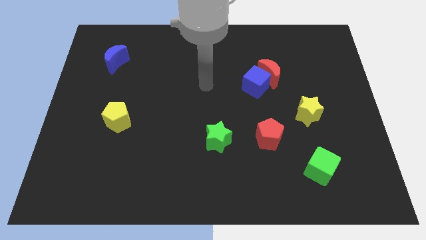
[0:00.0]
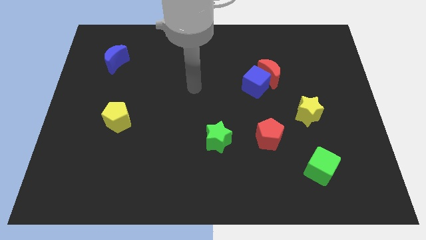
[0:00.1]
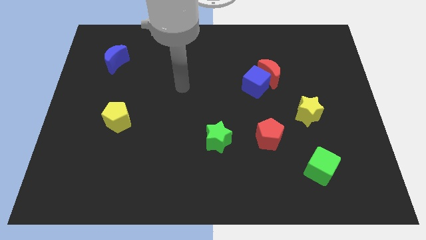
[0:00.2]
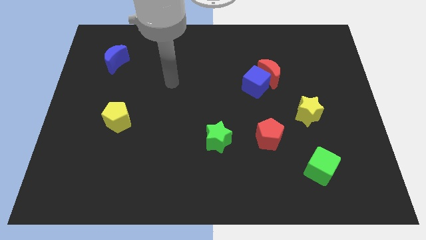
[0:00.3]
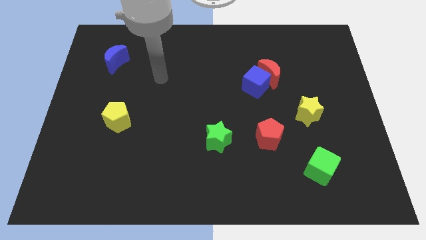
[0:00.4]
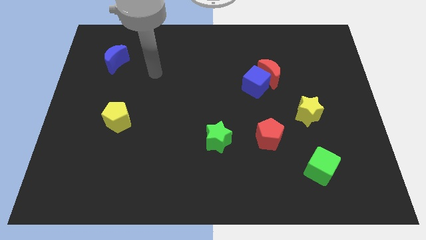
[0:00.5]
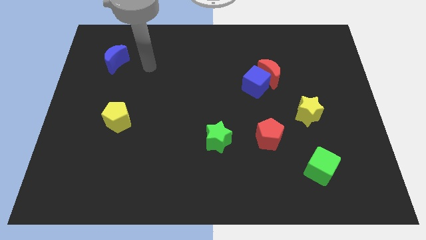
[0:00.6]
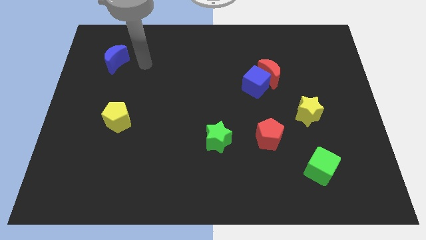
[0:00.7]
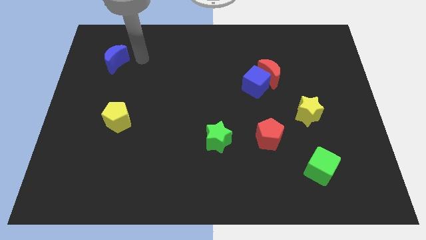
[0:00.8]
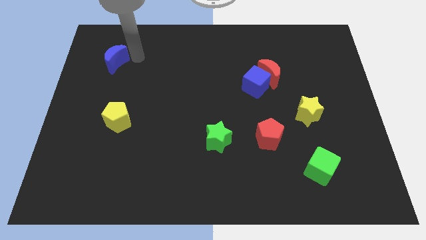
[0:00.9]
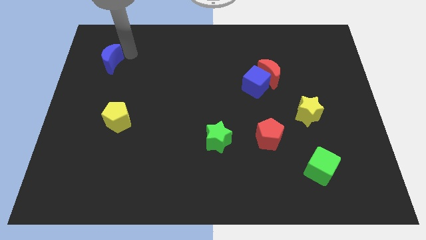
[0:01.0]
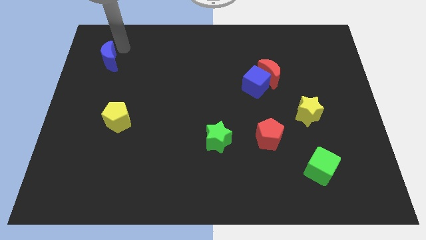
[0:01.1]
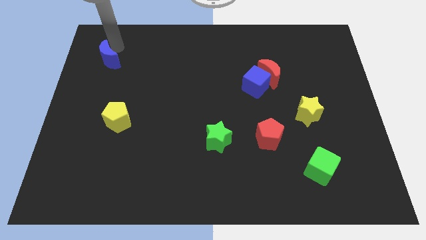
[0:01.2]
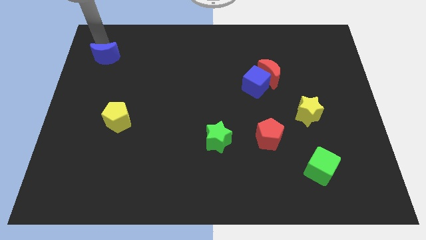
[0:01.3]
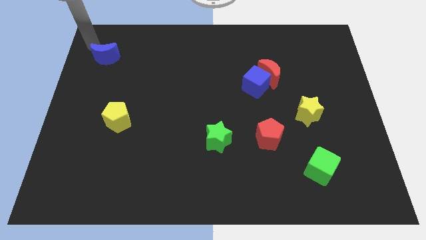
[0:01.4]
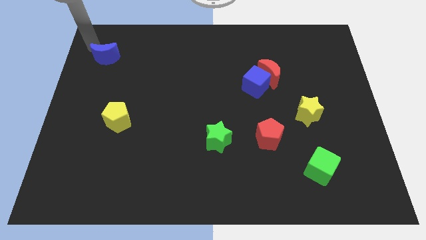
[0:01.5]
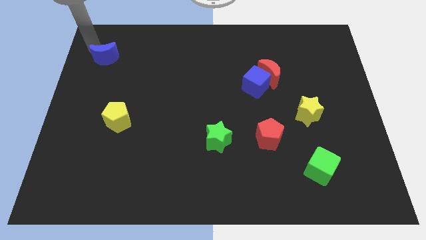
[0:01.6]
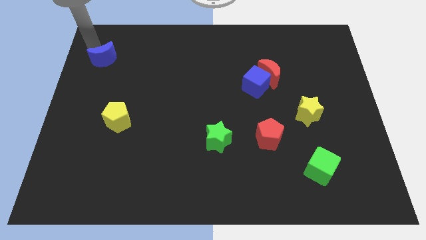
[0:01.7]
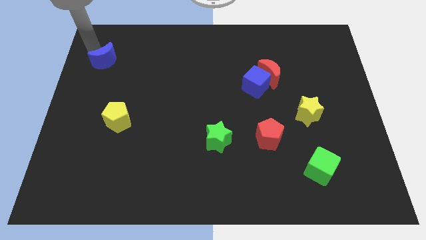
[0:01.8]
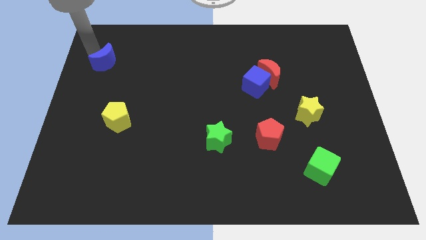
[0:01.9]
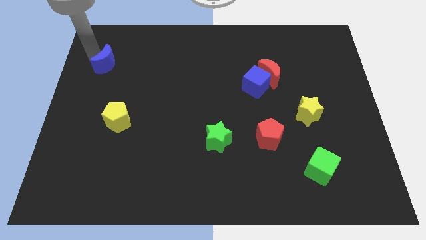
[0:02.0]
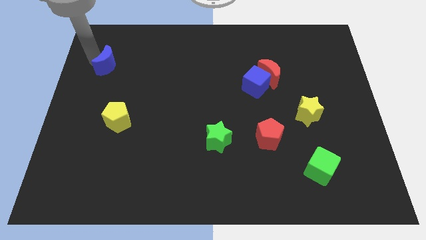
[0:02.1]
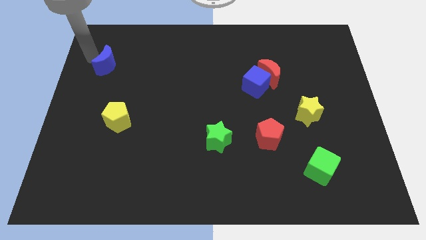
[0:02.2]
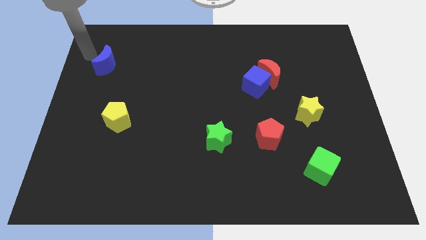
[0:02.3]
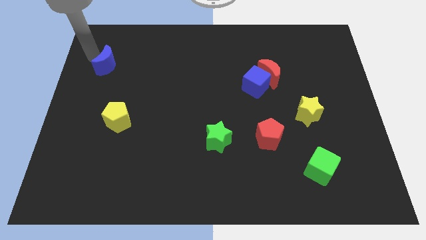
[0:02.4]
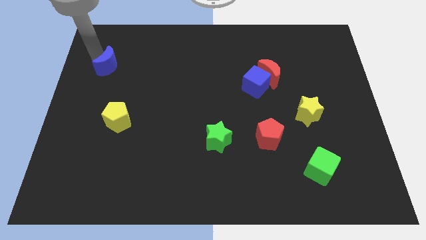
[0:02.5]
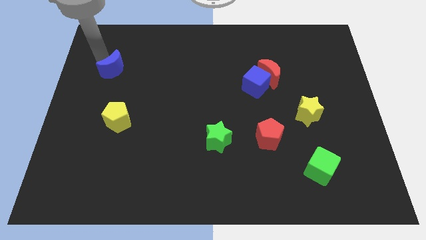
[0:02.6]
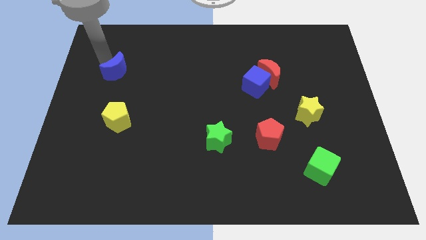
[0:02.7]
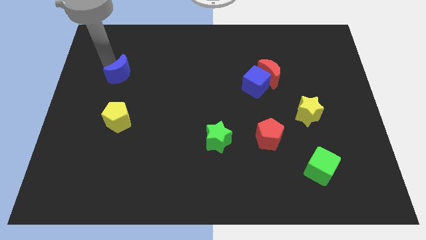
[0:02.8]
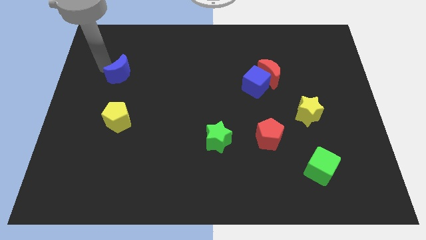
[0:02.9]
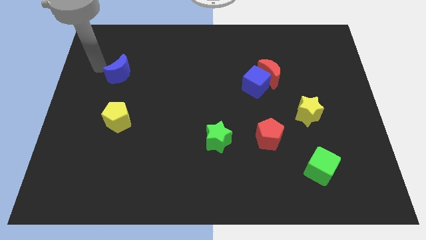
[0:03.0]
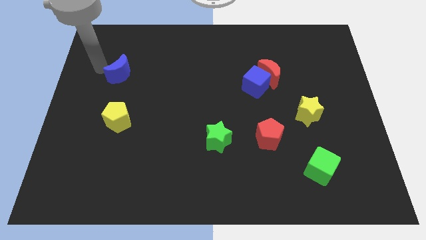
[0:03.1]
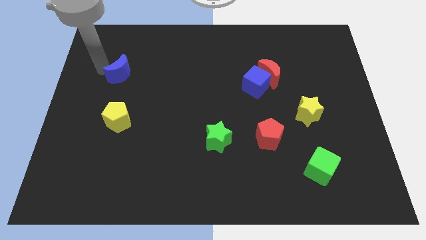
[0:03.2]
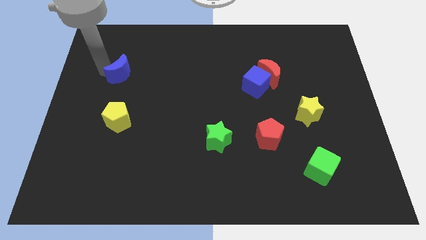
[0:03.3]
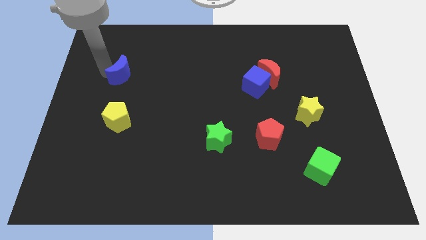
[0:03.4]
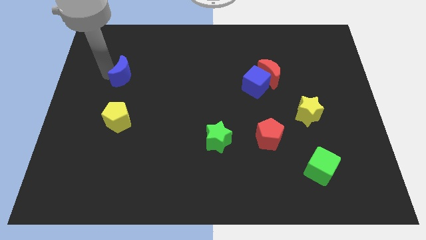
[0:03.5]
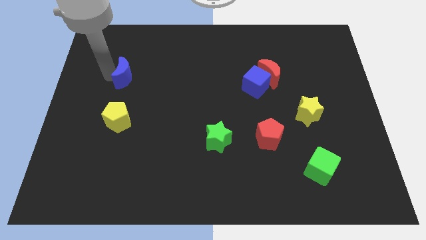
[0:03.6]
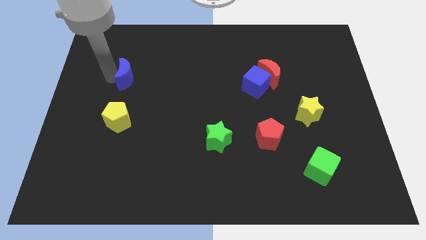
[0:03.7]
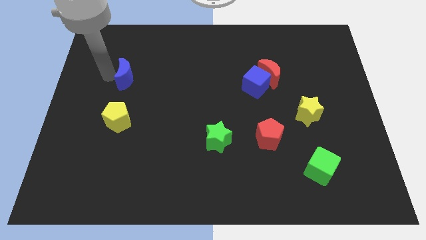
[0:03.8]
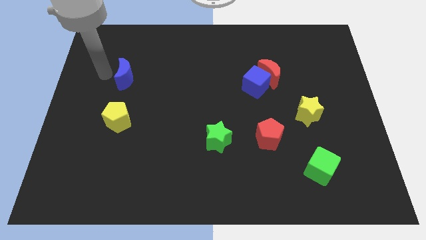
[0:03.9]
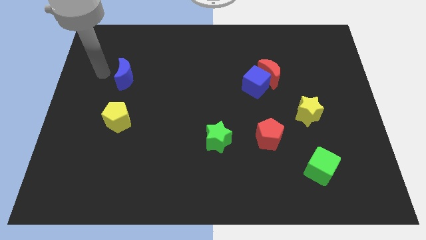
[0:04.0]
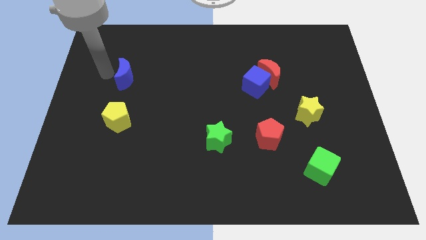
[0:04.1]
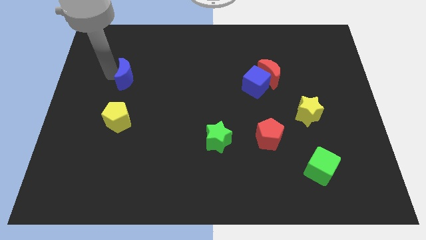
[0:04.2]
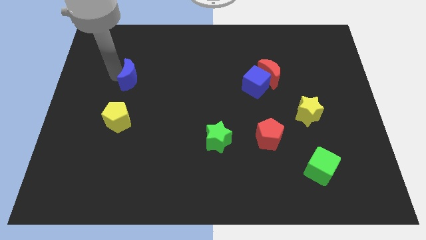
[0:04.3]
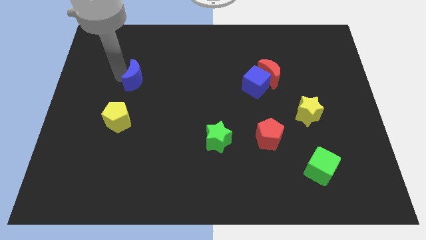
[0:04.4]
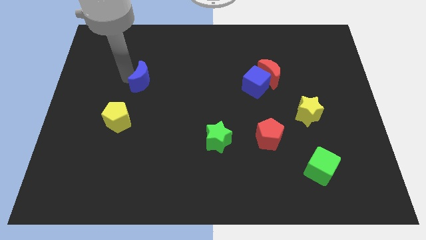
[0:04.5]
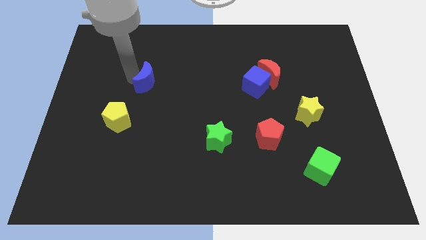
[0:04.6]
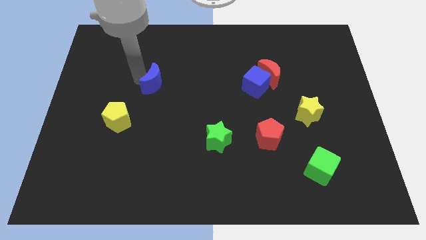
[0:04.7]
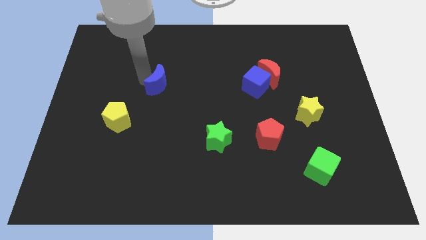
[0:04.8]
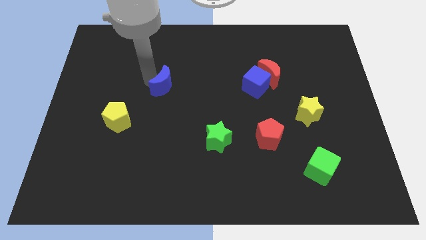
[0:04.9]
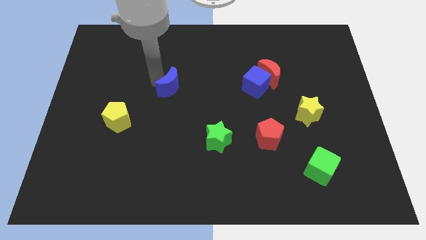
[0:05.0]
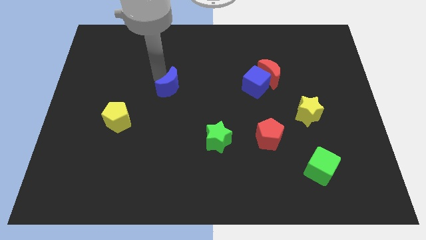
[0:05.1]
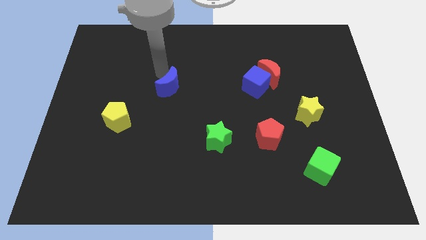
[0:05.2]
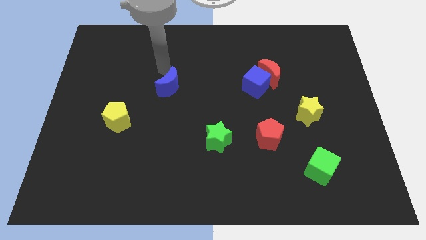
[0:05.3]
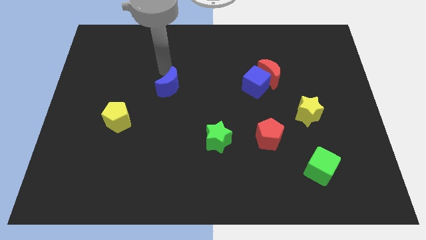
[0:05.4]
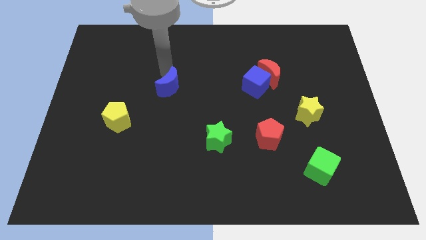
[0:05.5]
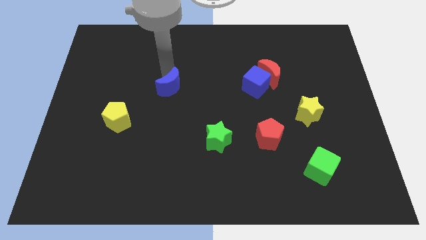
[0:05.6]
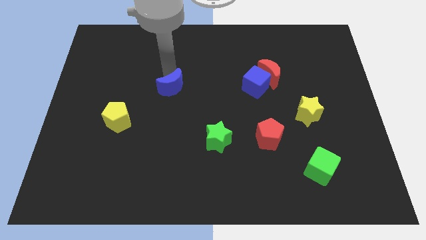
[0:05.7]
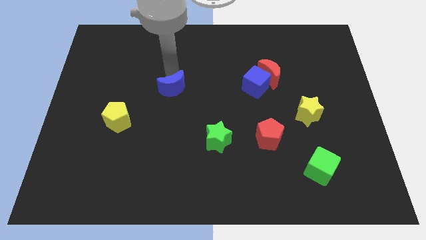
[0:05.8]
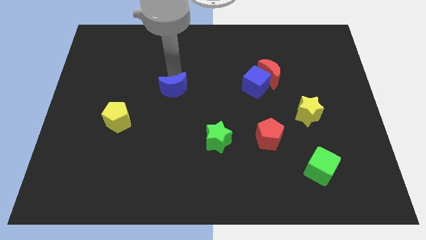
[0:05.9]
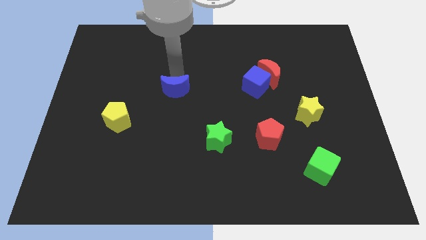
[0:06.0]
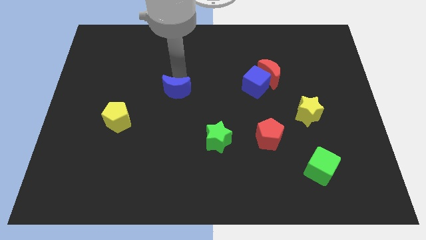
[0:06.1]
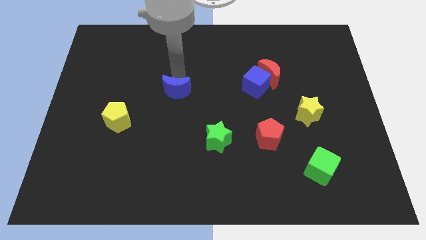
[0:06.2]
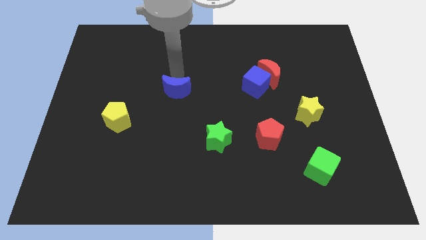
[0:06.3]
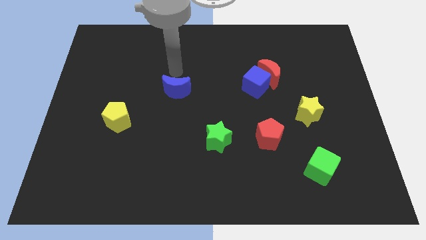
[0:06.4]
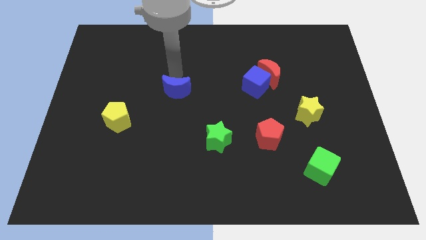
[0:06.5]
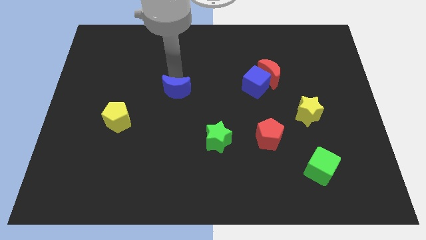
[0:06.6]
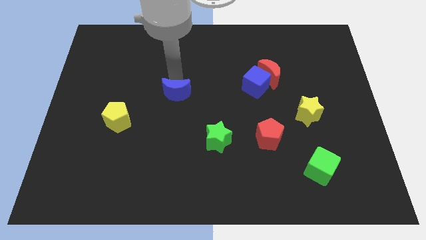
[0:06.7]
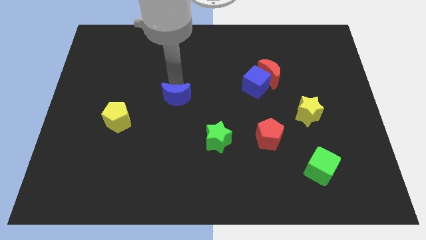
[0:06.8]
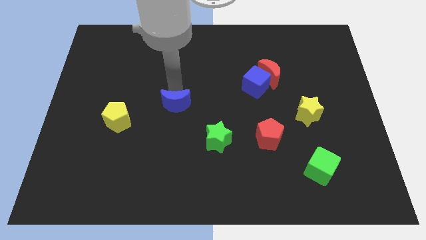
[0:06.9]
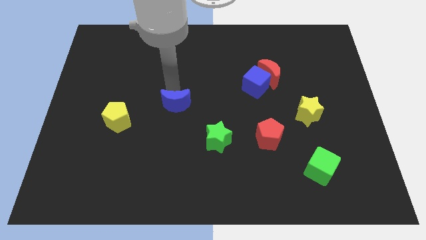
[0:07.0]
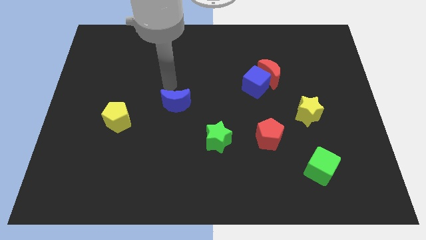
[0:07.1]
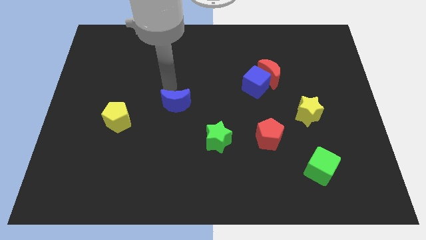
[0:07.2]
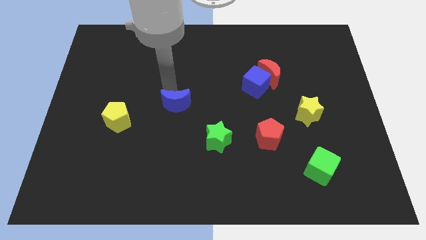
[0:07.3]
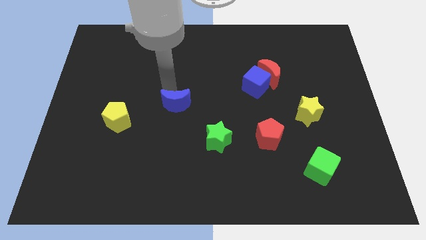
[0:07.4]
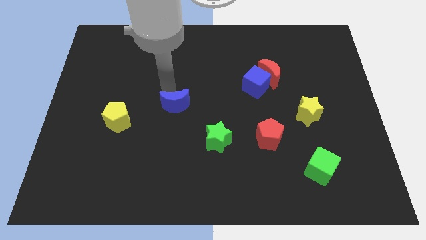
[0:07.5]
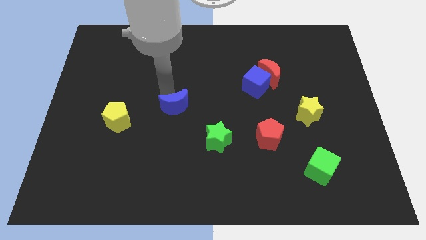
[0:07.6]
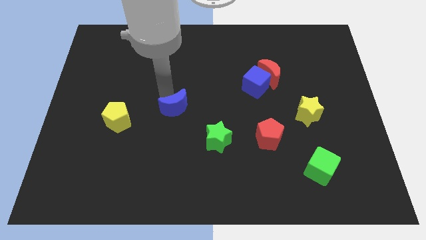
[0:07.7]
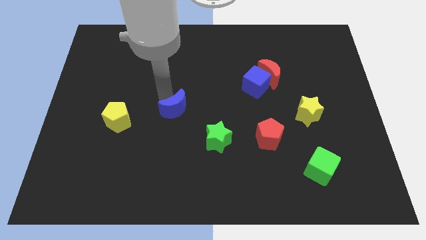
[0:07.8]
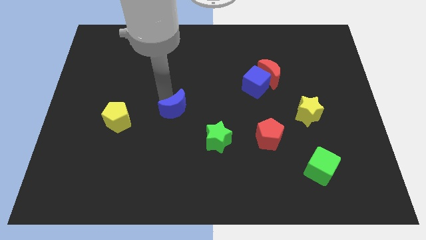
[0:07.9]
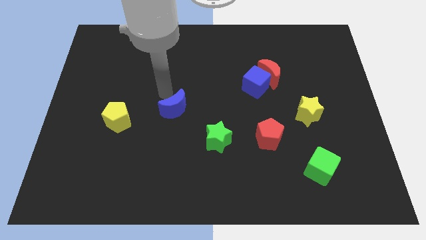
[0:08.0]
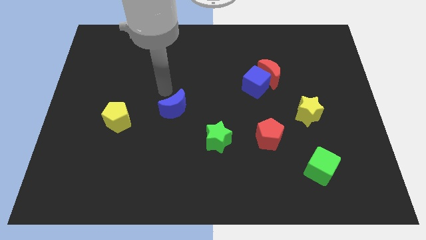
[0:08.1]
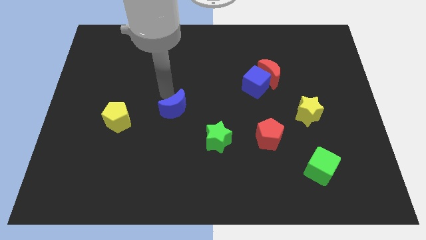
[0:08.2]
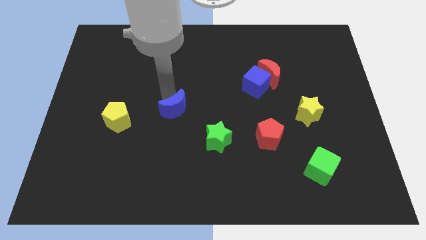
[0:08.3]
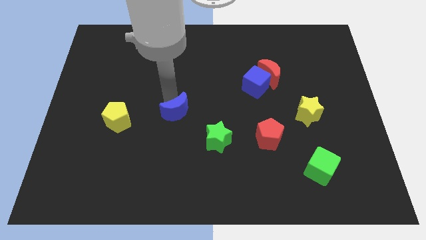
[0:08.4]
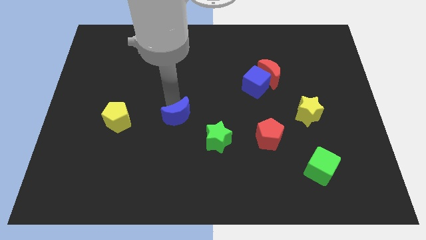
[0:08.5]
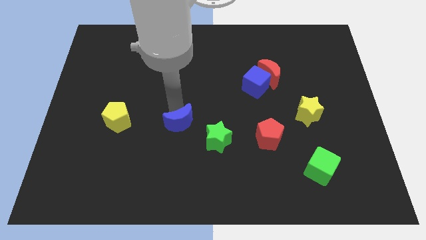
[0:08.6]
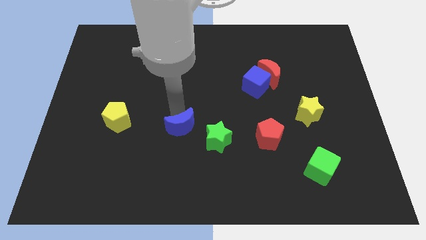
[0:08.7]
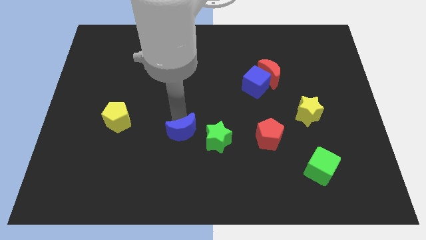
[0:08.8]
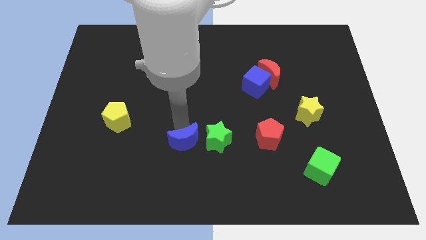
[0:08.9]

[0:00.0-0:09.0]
push the blue moon to the bottom left side of the green star
